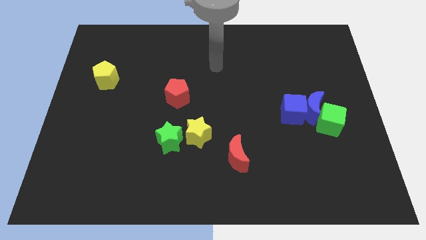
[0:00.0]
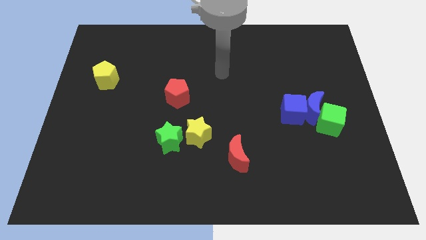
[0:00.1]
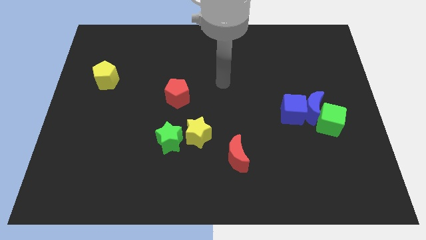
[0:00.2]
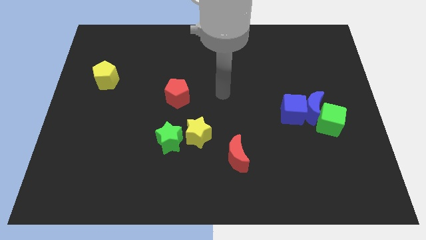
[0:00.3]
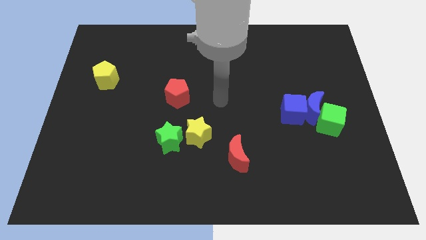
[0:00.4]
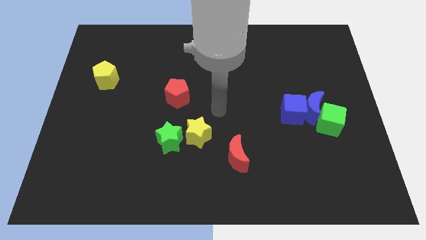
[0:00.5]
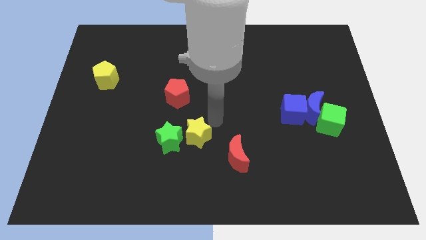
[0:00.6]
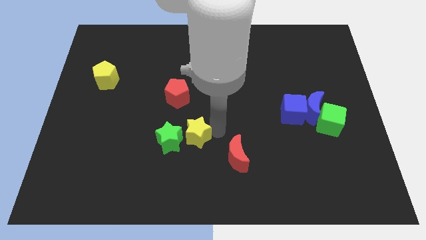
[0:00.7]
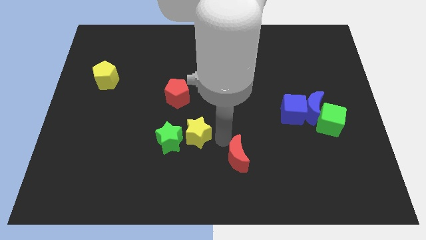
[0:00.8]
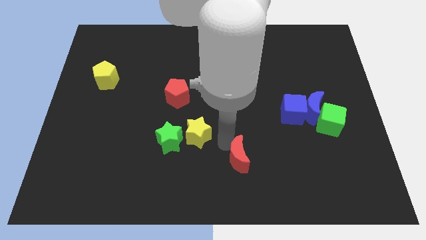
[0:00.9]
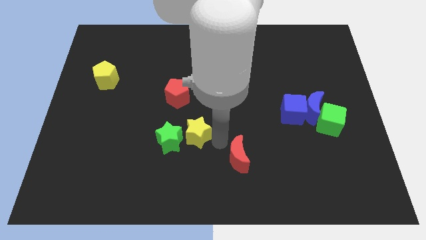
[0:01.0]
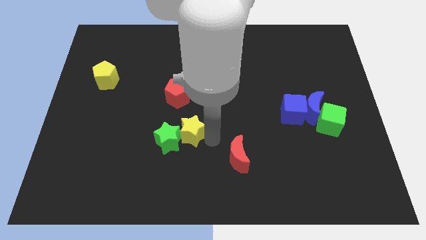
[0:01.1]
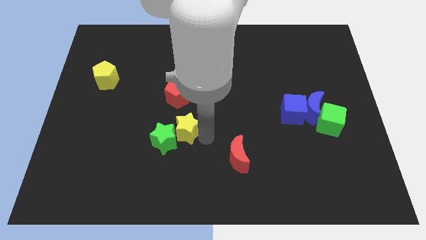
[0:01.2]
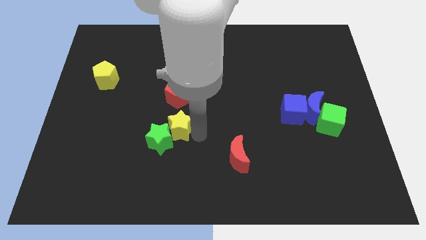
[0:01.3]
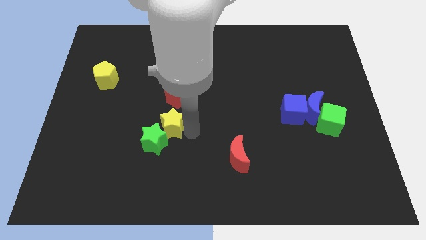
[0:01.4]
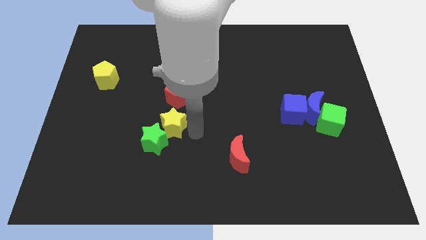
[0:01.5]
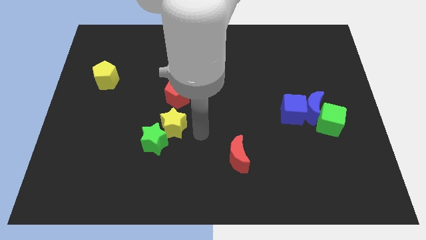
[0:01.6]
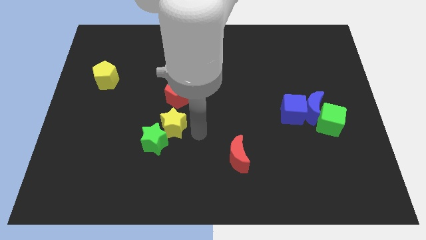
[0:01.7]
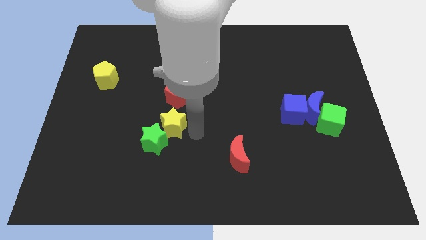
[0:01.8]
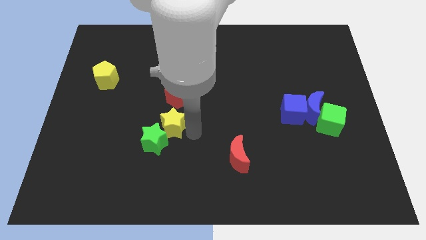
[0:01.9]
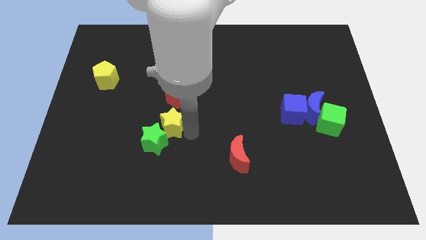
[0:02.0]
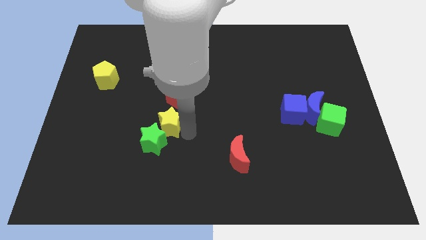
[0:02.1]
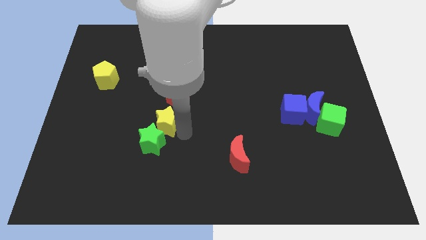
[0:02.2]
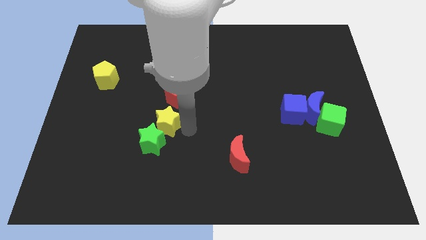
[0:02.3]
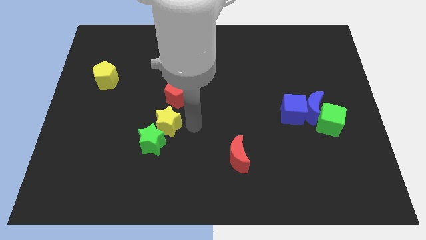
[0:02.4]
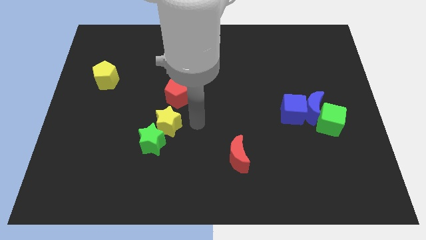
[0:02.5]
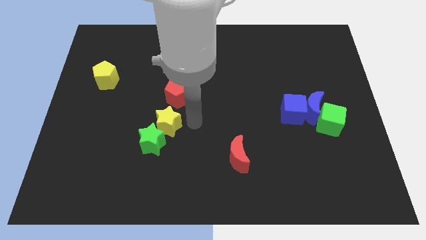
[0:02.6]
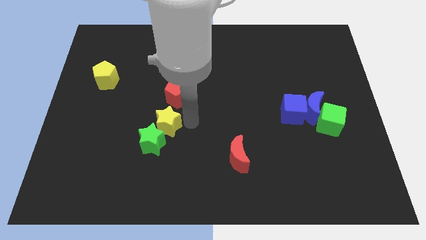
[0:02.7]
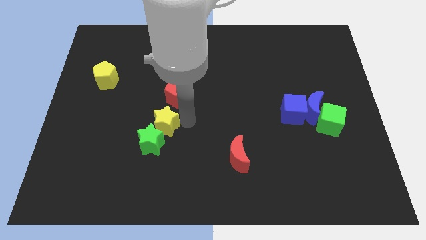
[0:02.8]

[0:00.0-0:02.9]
slightly push the yellow star left

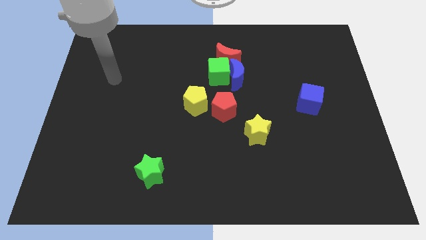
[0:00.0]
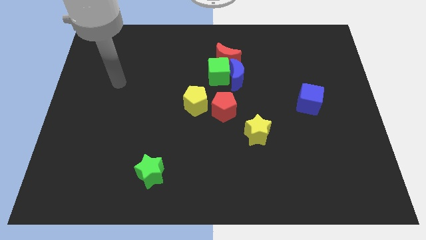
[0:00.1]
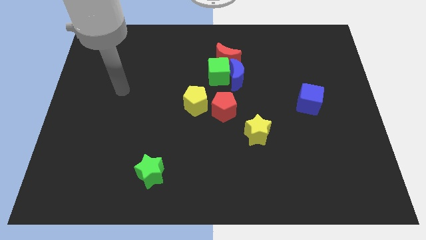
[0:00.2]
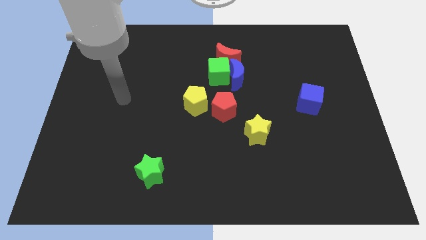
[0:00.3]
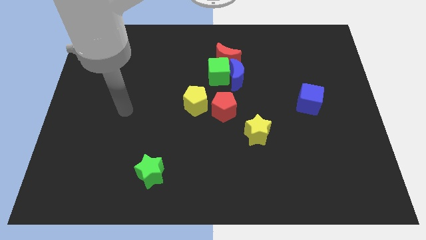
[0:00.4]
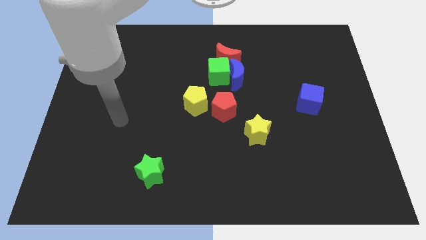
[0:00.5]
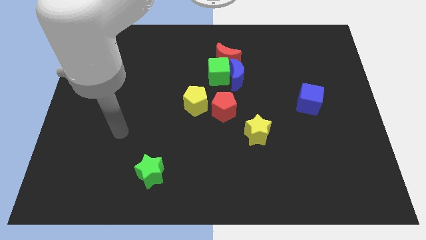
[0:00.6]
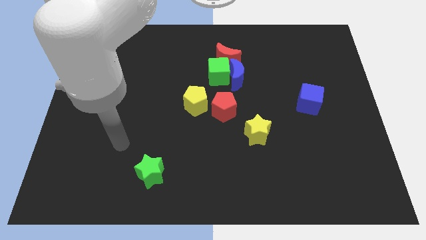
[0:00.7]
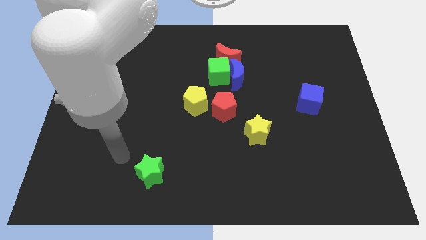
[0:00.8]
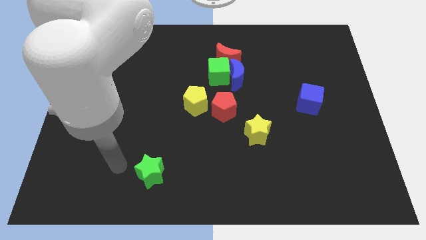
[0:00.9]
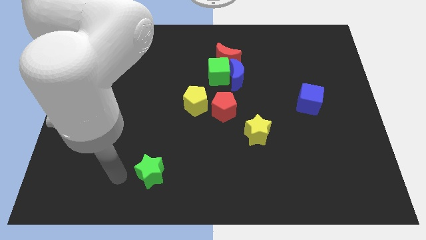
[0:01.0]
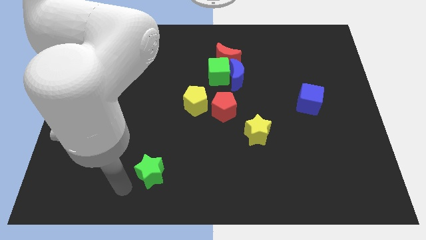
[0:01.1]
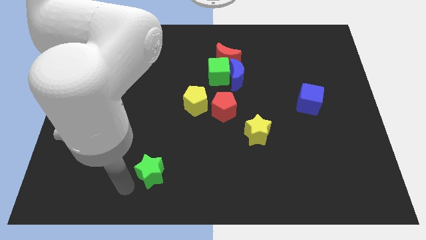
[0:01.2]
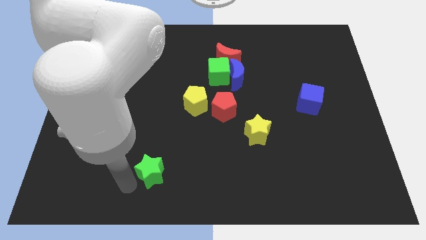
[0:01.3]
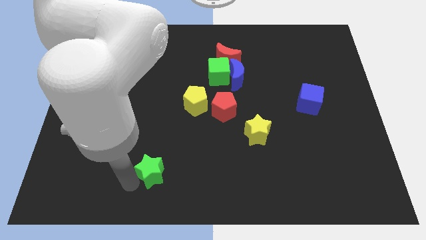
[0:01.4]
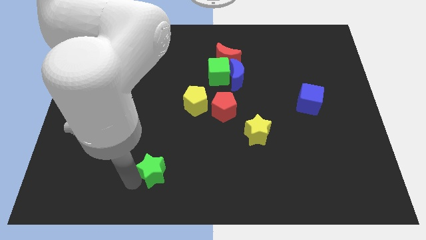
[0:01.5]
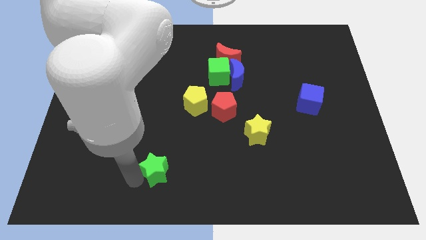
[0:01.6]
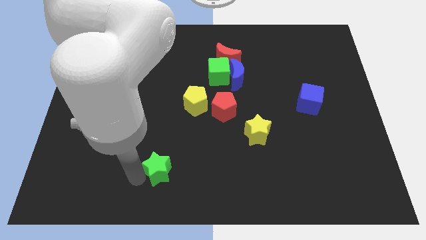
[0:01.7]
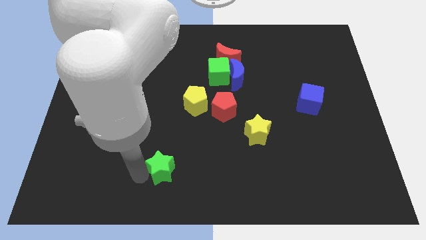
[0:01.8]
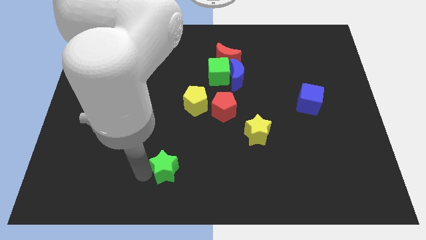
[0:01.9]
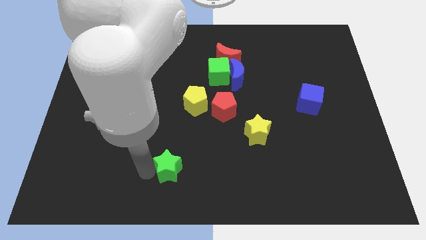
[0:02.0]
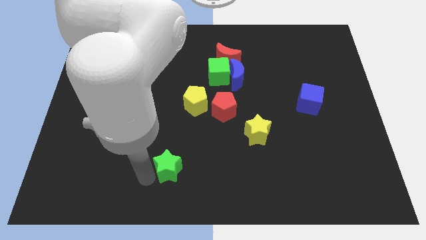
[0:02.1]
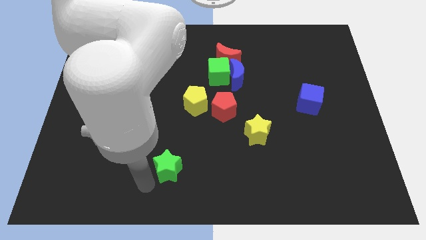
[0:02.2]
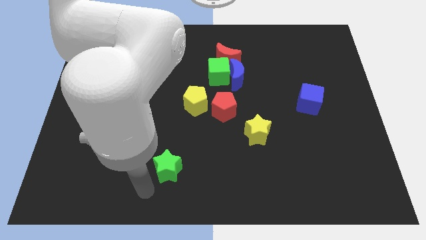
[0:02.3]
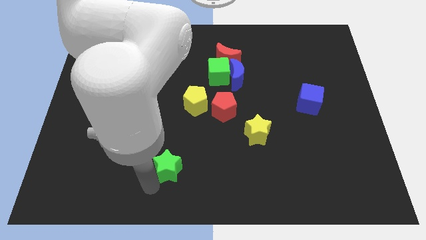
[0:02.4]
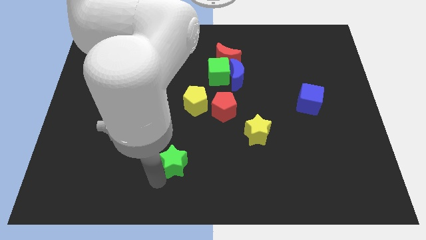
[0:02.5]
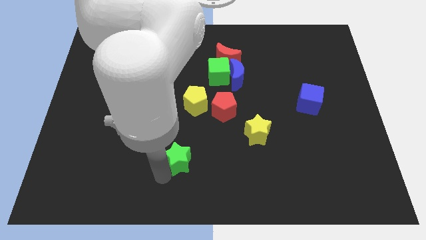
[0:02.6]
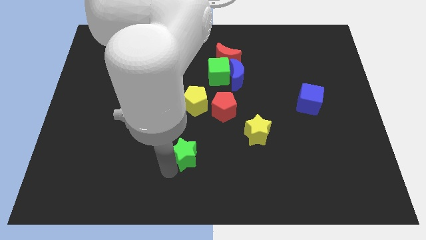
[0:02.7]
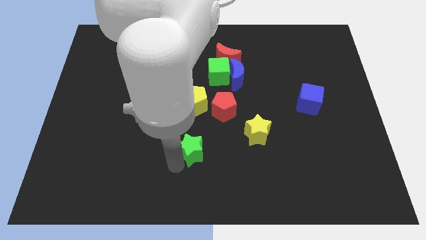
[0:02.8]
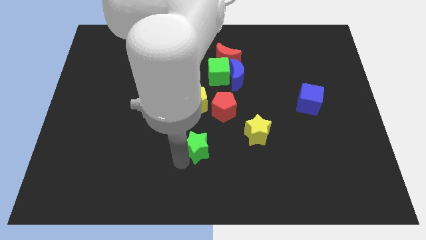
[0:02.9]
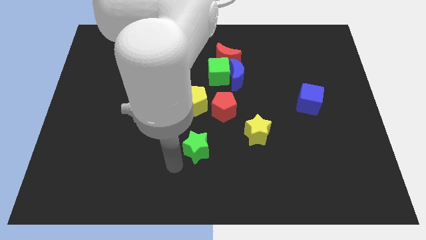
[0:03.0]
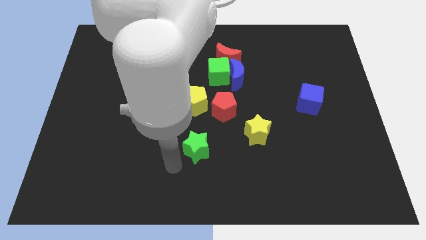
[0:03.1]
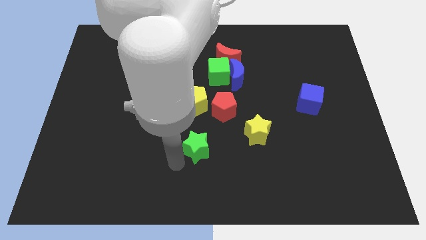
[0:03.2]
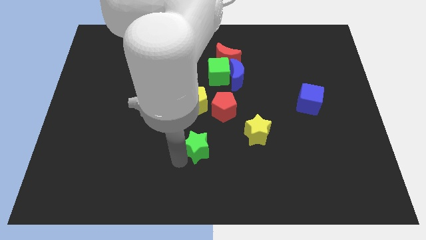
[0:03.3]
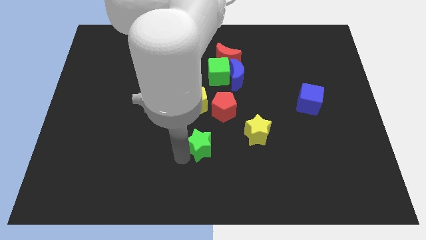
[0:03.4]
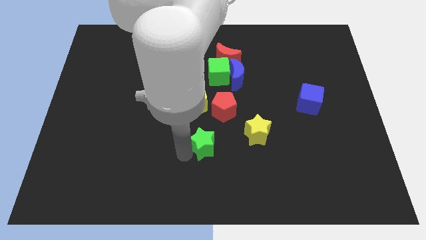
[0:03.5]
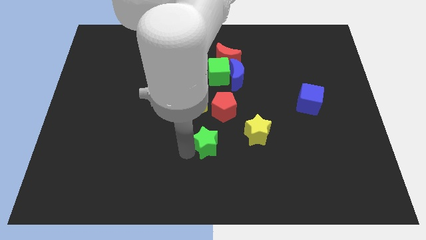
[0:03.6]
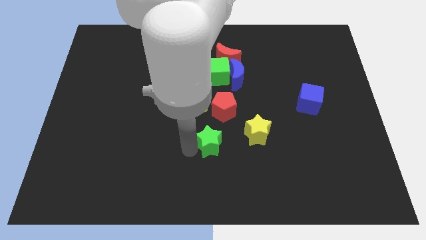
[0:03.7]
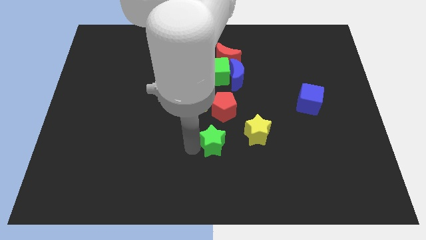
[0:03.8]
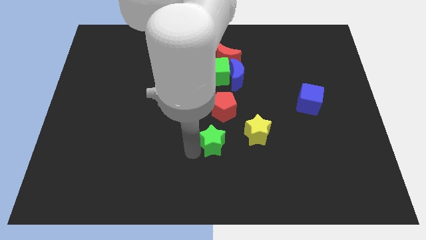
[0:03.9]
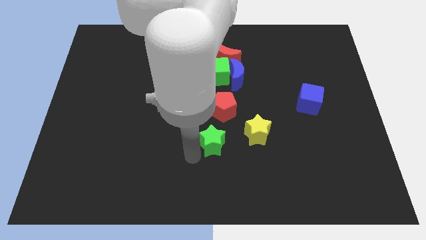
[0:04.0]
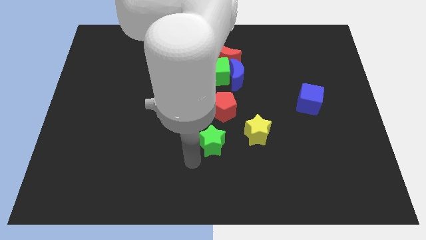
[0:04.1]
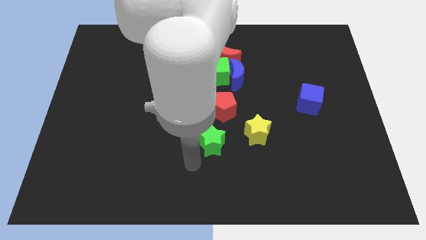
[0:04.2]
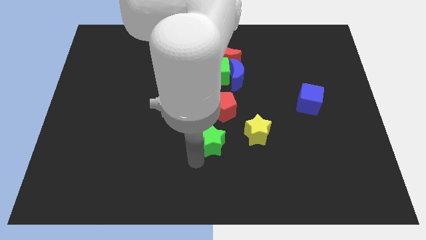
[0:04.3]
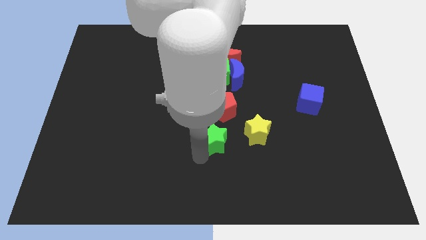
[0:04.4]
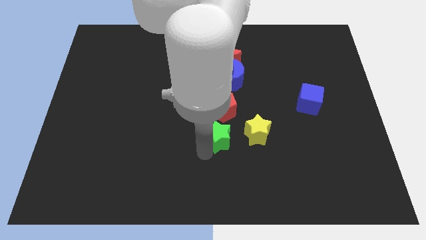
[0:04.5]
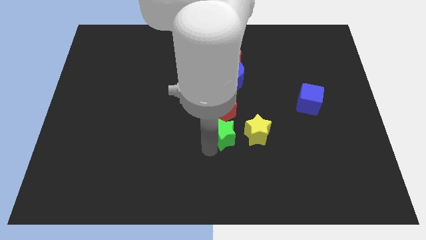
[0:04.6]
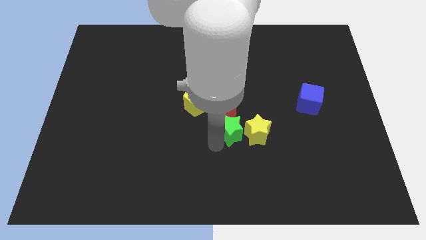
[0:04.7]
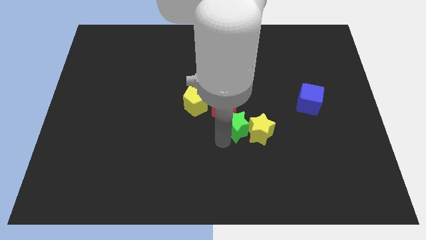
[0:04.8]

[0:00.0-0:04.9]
push the green star up and to the right diagonally

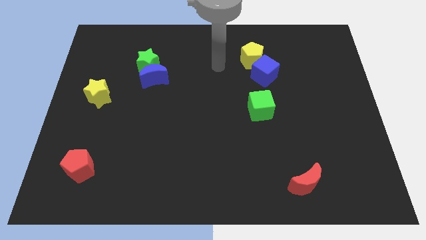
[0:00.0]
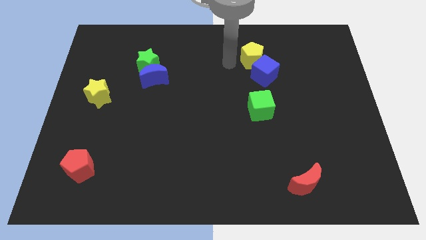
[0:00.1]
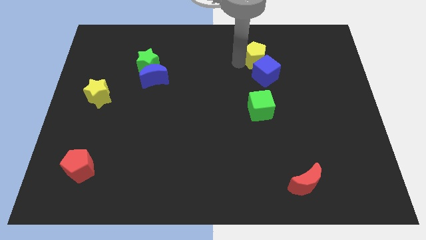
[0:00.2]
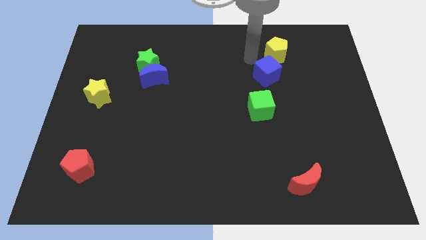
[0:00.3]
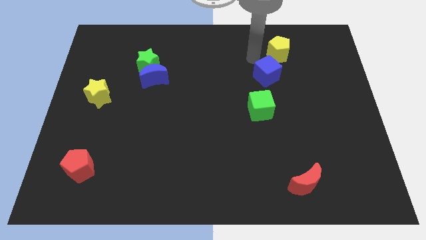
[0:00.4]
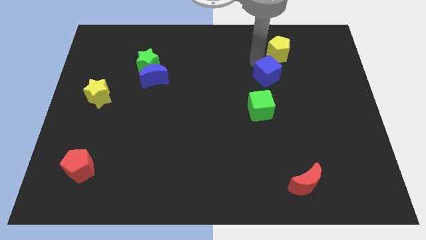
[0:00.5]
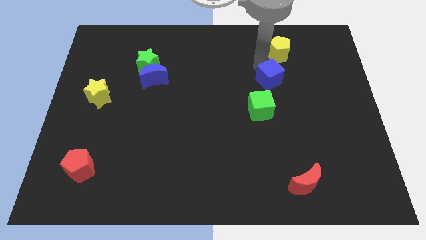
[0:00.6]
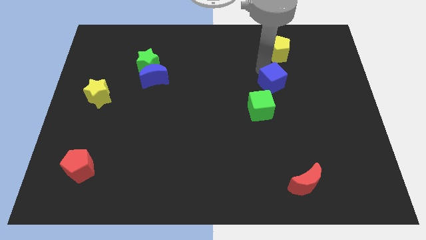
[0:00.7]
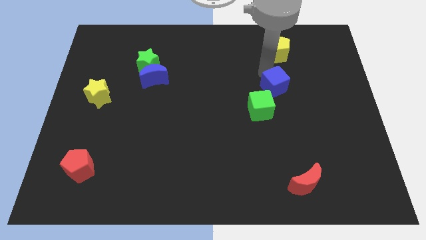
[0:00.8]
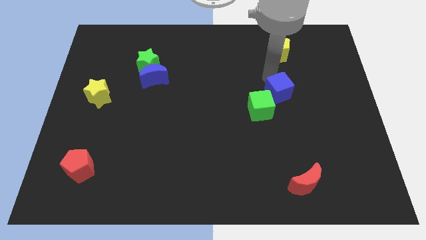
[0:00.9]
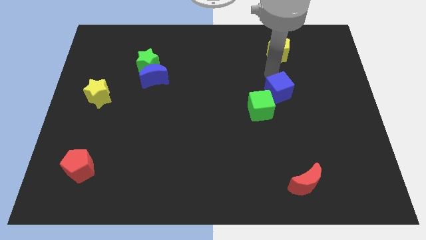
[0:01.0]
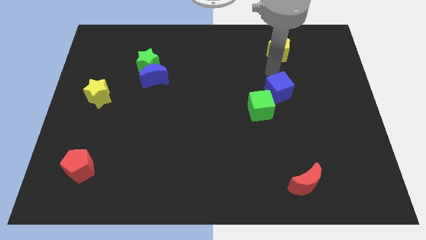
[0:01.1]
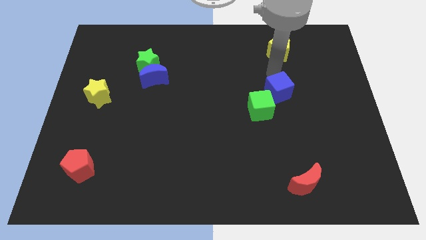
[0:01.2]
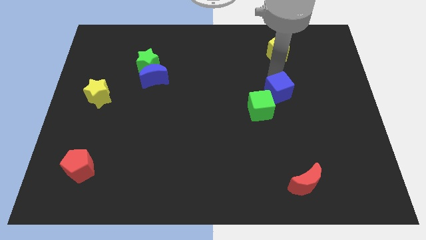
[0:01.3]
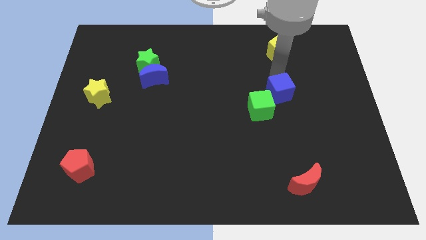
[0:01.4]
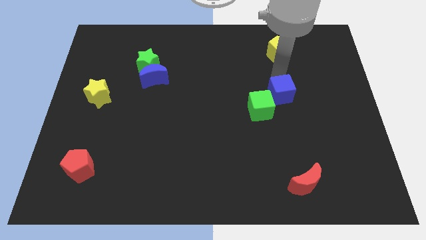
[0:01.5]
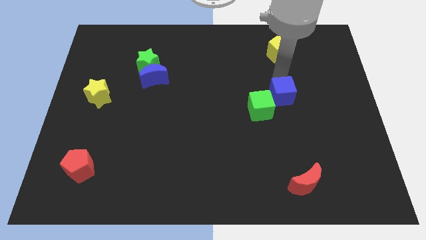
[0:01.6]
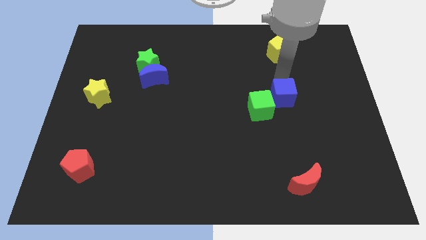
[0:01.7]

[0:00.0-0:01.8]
slightly push the blue cube down
